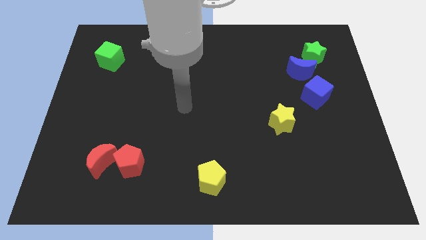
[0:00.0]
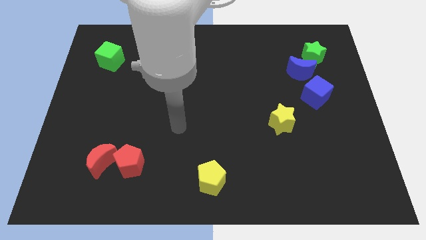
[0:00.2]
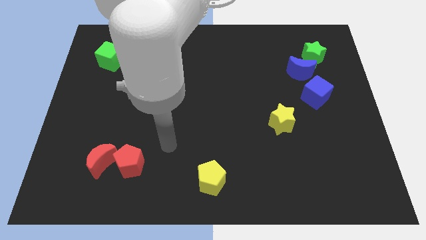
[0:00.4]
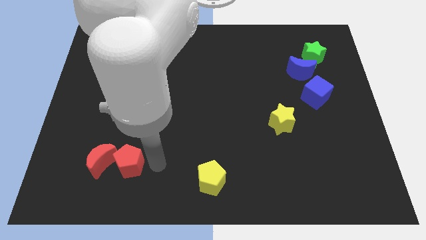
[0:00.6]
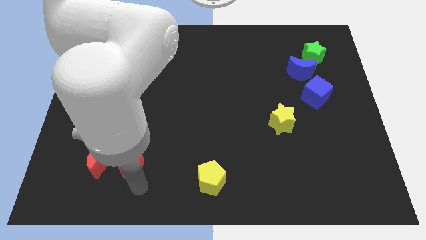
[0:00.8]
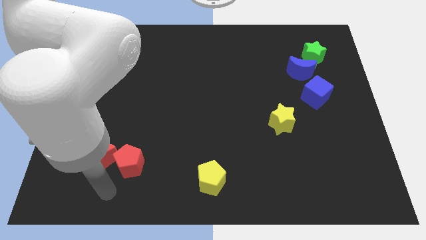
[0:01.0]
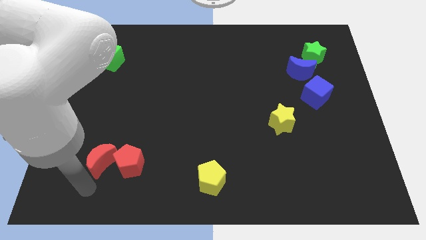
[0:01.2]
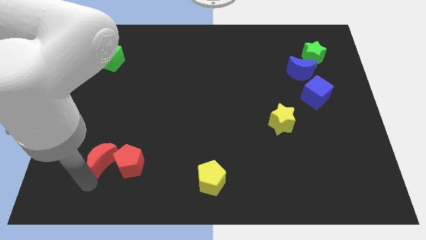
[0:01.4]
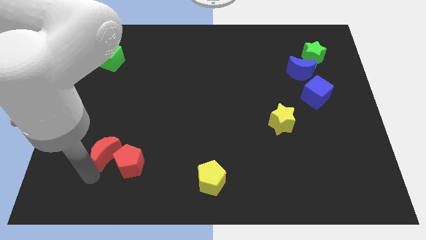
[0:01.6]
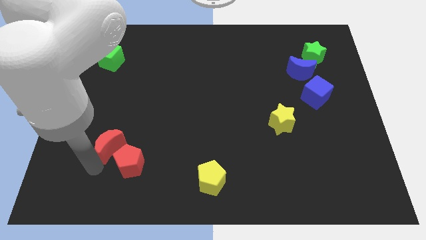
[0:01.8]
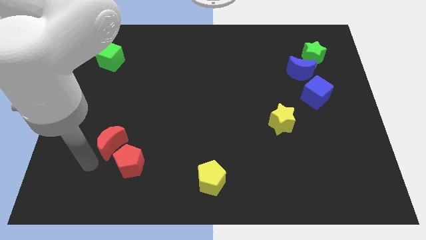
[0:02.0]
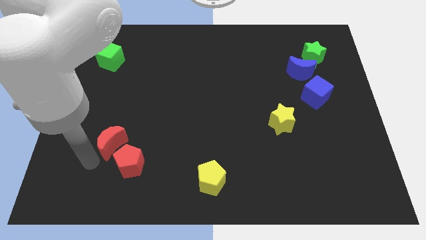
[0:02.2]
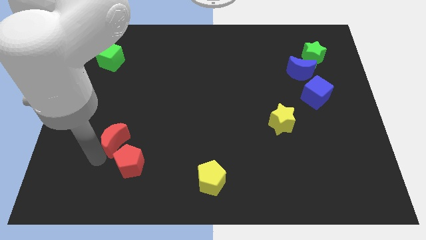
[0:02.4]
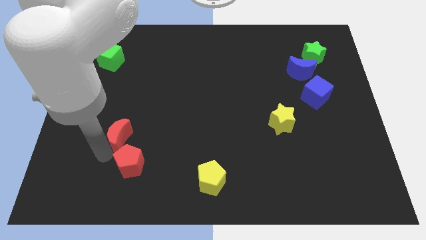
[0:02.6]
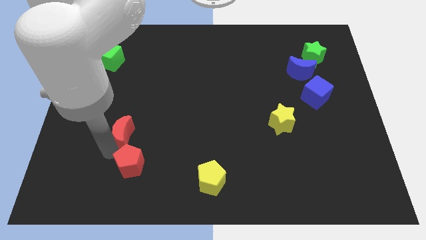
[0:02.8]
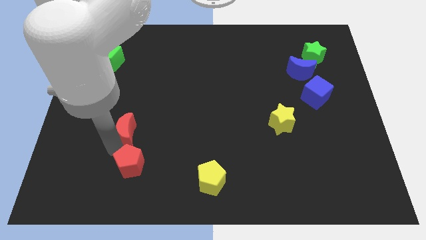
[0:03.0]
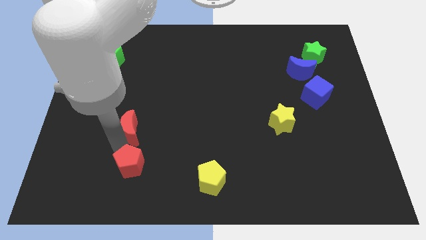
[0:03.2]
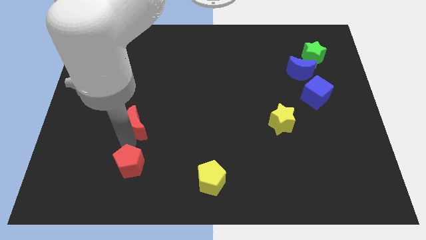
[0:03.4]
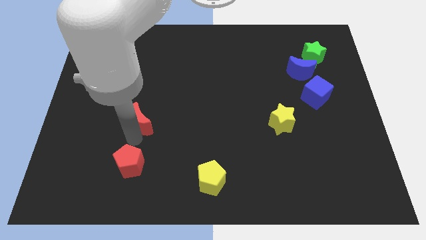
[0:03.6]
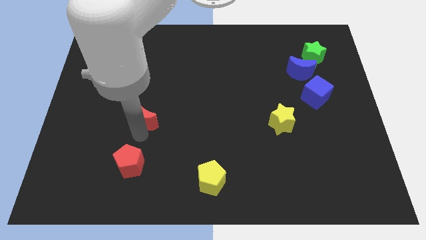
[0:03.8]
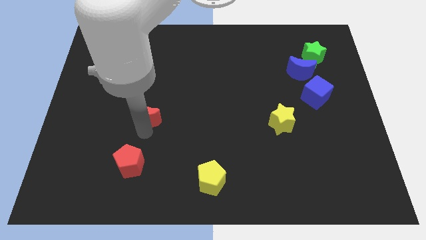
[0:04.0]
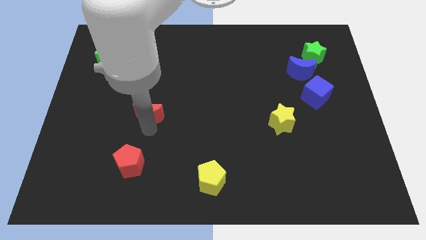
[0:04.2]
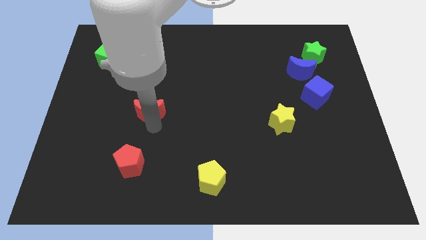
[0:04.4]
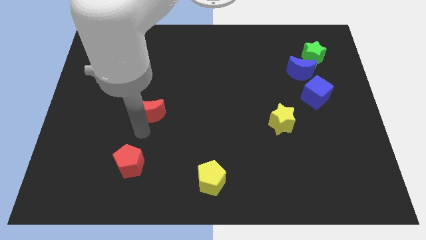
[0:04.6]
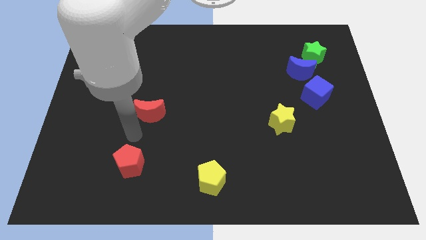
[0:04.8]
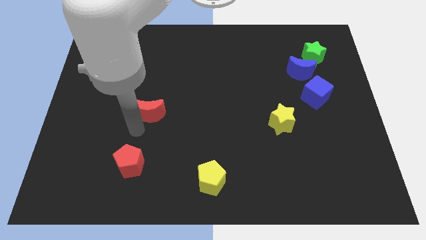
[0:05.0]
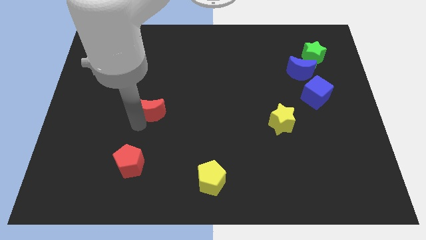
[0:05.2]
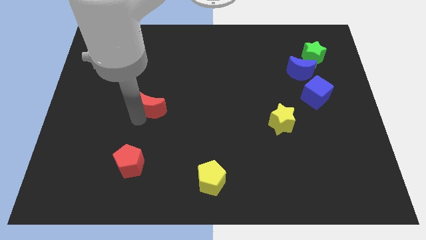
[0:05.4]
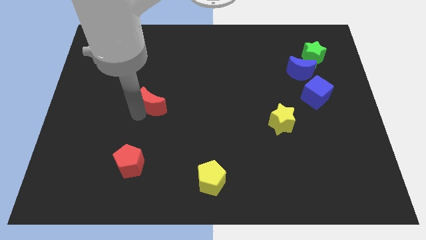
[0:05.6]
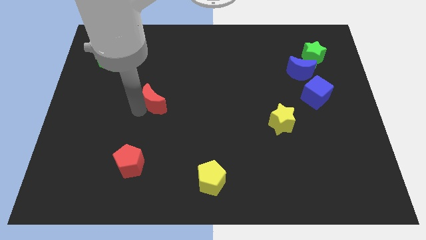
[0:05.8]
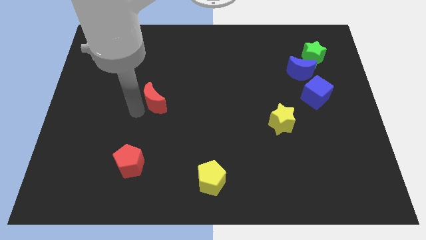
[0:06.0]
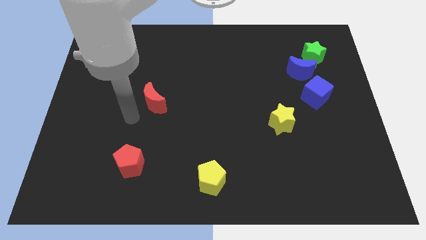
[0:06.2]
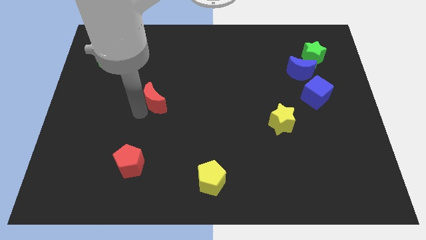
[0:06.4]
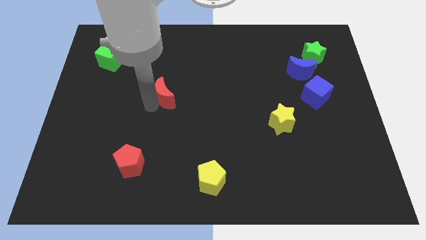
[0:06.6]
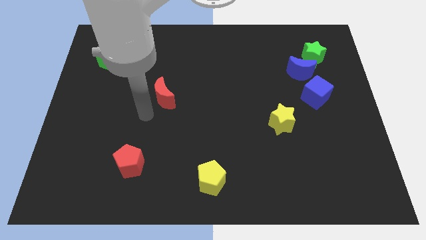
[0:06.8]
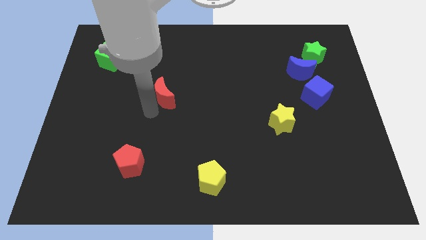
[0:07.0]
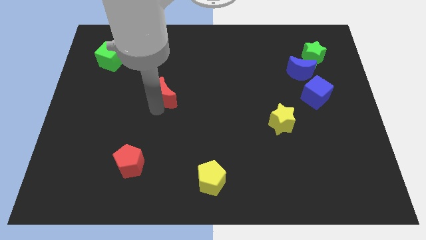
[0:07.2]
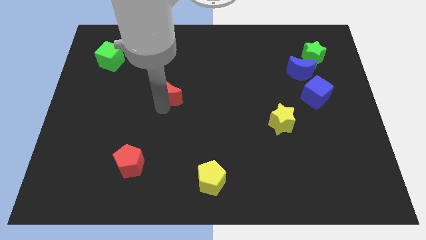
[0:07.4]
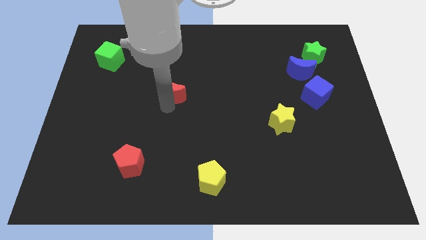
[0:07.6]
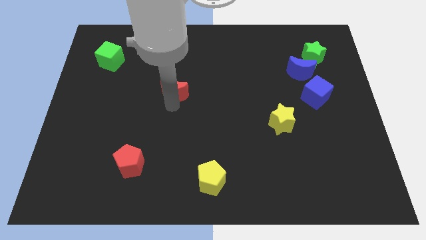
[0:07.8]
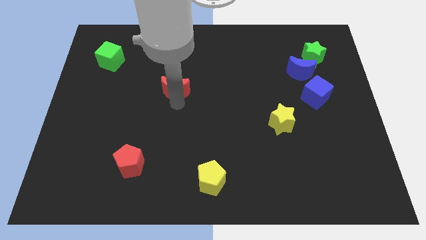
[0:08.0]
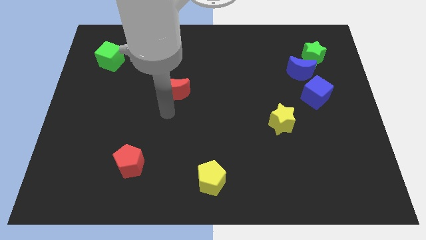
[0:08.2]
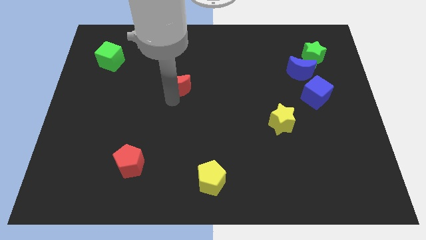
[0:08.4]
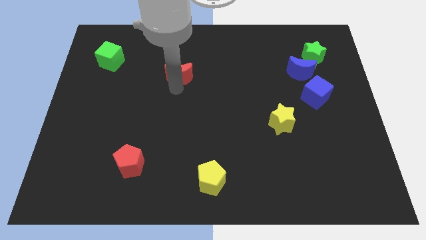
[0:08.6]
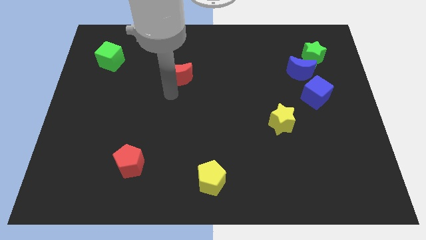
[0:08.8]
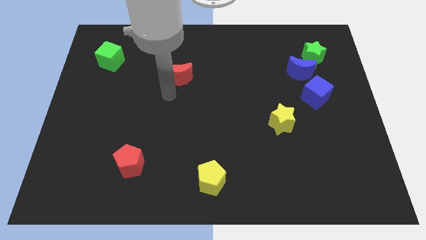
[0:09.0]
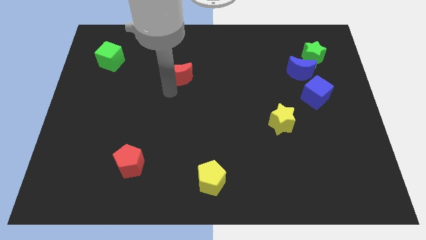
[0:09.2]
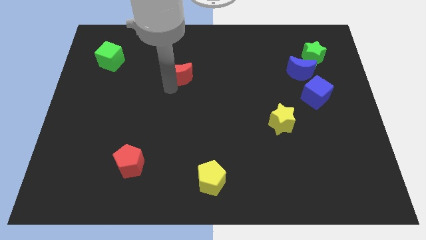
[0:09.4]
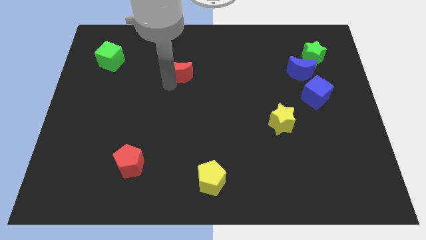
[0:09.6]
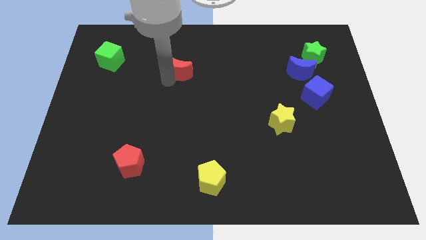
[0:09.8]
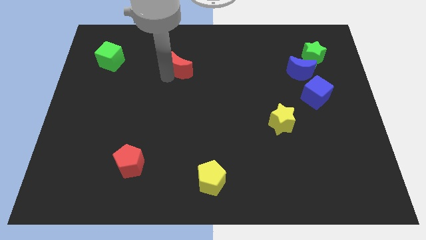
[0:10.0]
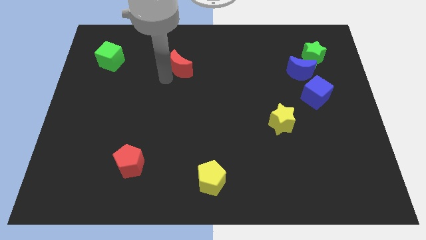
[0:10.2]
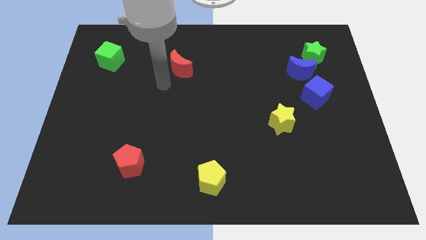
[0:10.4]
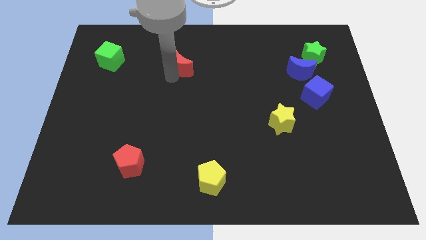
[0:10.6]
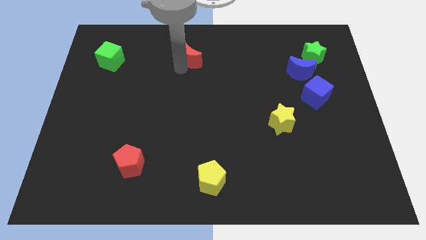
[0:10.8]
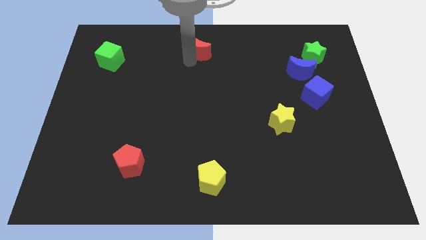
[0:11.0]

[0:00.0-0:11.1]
push the red moon to the top

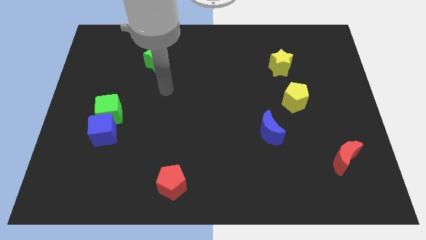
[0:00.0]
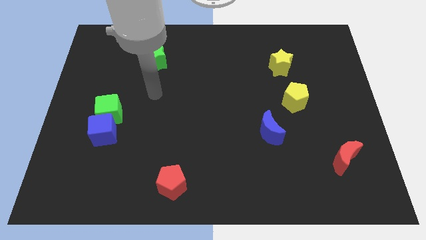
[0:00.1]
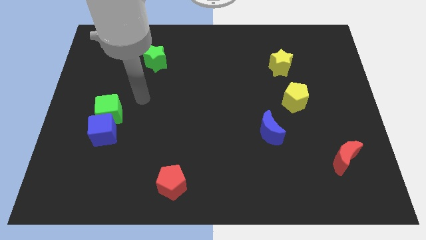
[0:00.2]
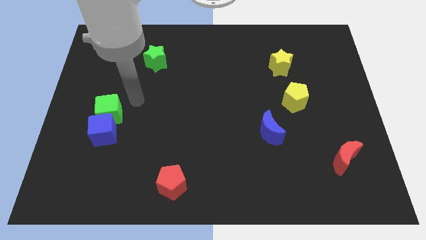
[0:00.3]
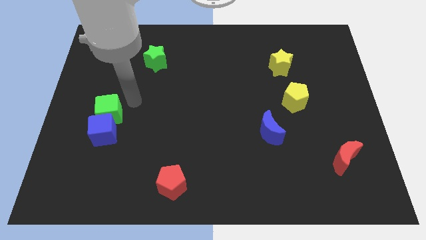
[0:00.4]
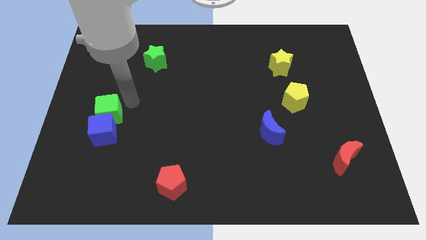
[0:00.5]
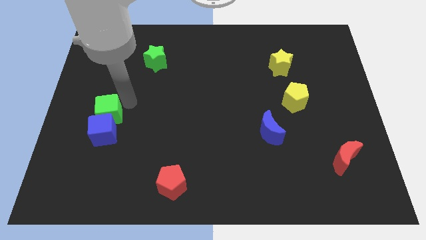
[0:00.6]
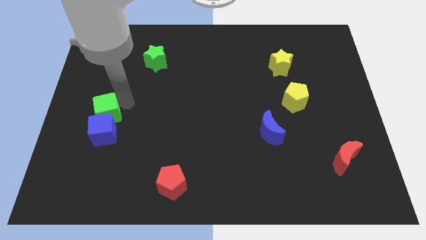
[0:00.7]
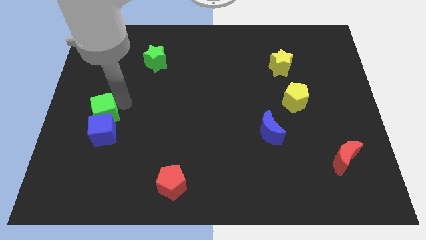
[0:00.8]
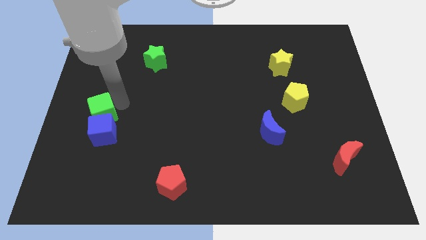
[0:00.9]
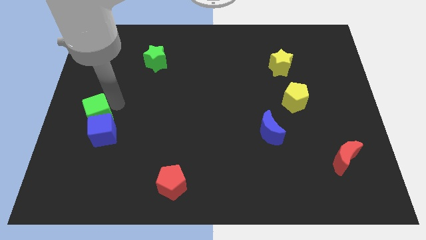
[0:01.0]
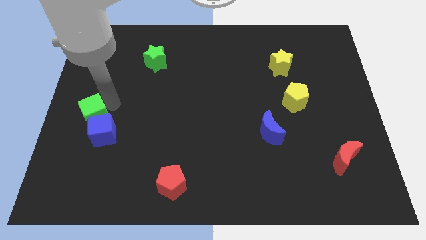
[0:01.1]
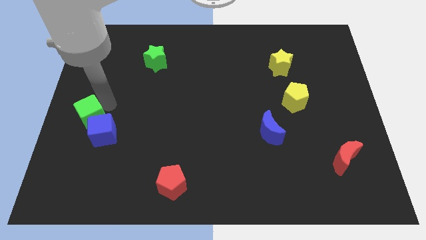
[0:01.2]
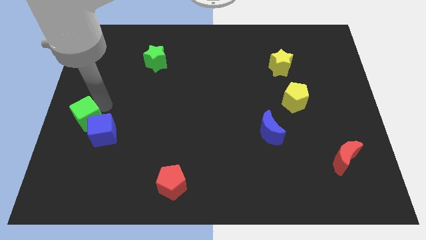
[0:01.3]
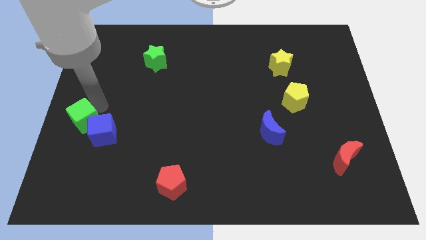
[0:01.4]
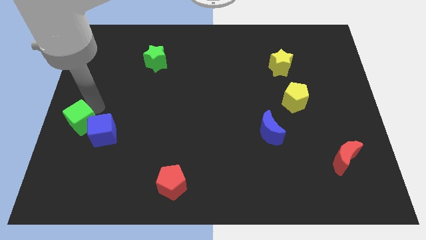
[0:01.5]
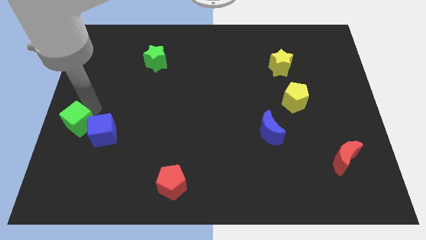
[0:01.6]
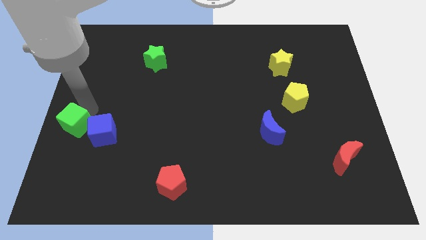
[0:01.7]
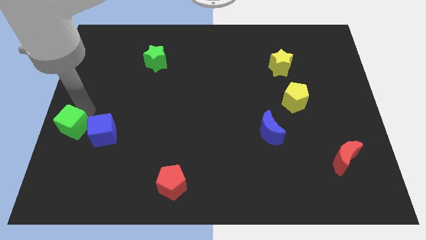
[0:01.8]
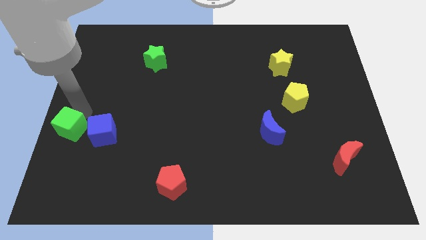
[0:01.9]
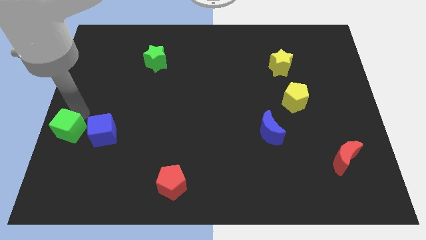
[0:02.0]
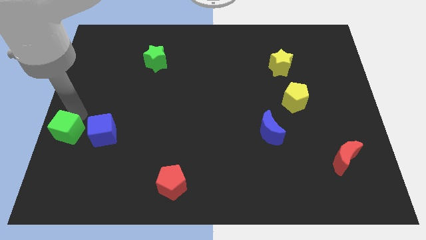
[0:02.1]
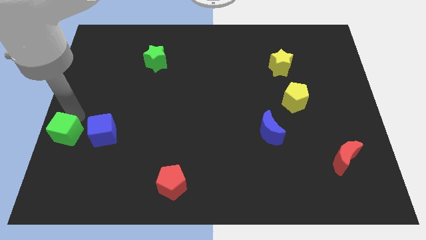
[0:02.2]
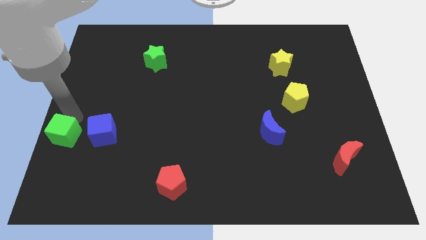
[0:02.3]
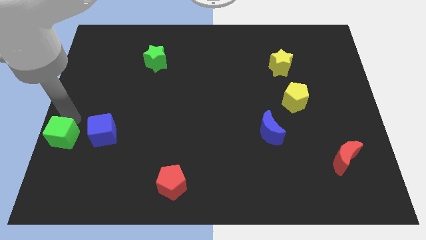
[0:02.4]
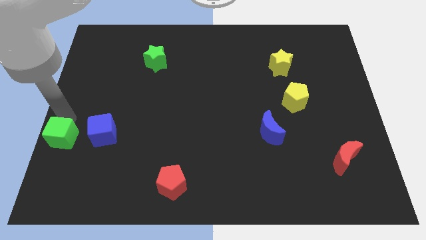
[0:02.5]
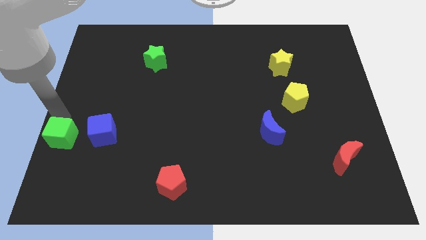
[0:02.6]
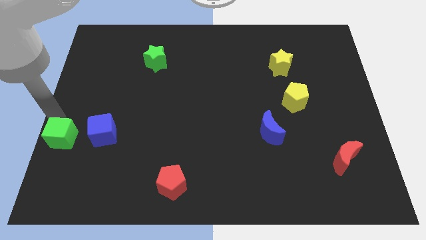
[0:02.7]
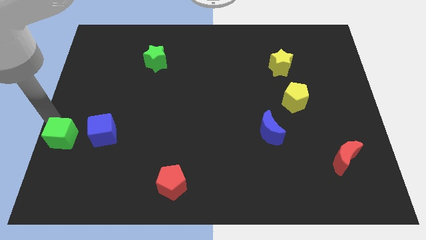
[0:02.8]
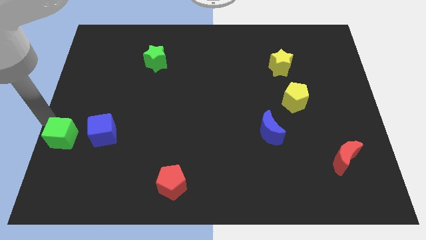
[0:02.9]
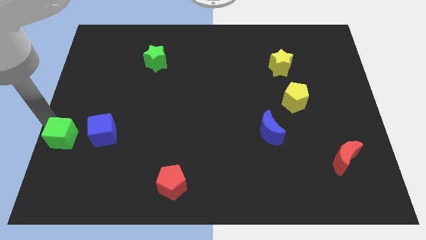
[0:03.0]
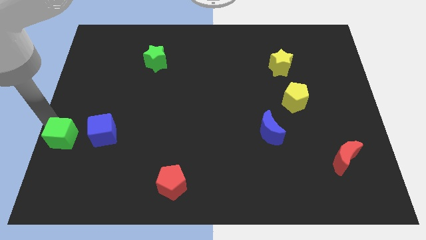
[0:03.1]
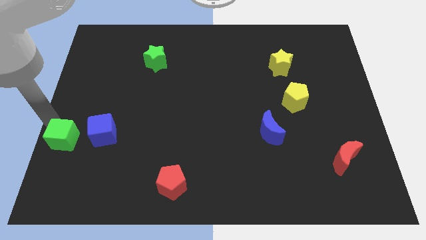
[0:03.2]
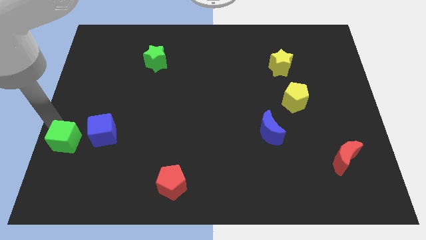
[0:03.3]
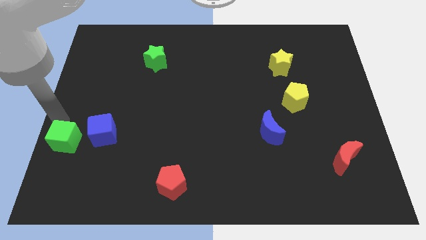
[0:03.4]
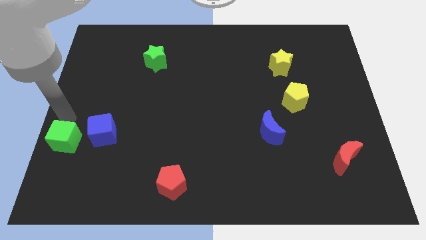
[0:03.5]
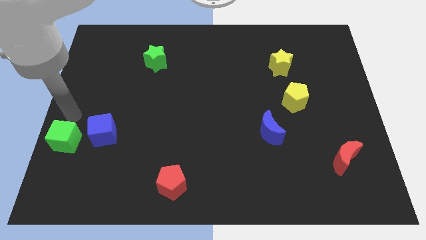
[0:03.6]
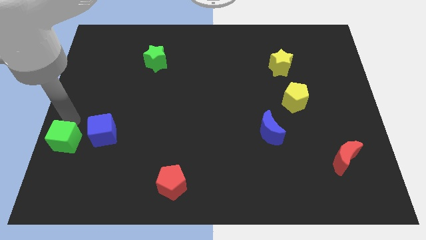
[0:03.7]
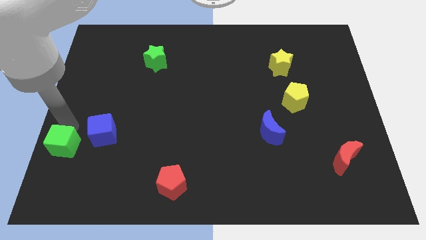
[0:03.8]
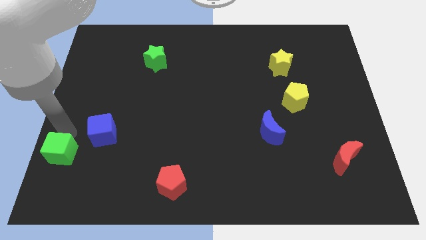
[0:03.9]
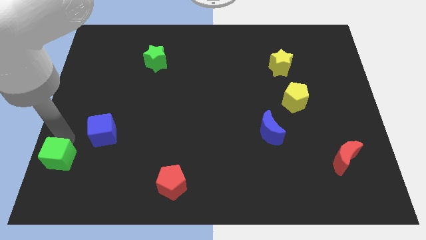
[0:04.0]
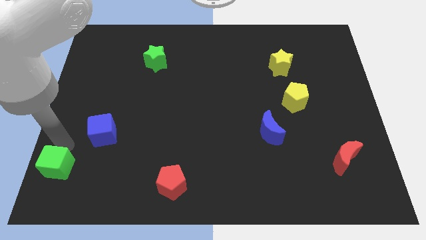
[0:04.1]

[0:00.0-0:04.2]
slide the green cube to the bottom left
